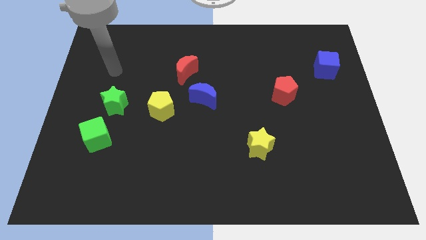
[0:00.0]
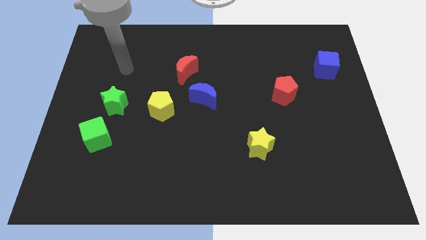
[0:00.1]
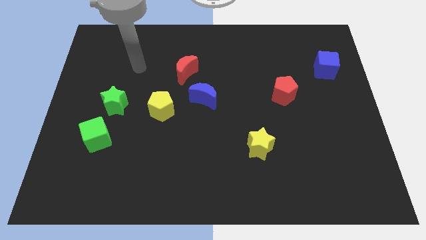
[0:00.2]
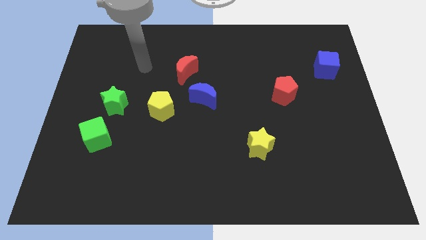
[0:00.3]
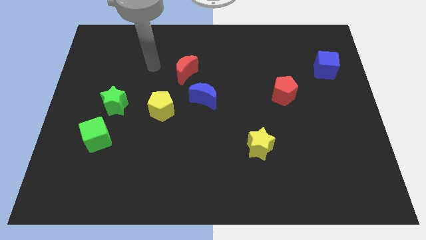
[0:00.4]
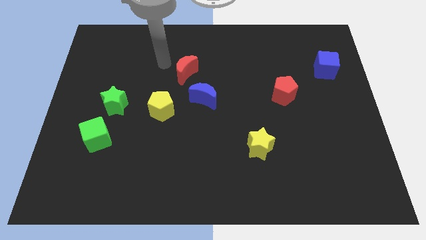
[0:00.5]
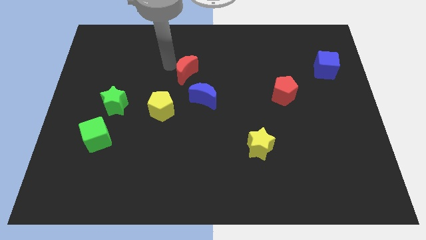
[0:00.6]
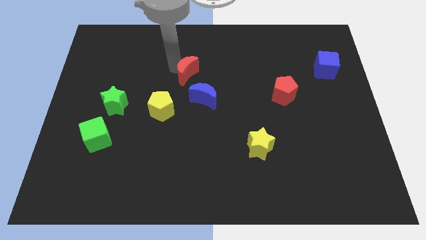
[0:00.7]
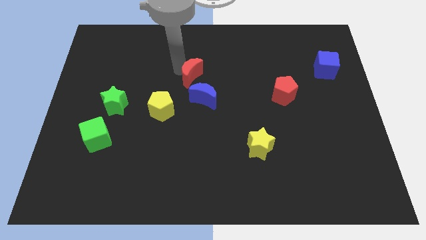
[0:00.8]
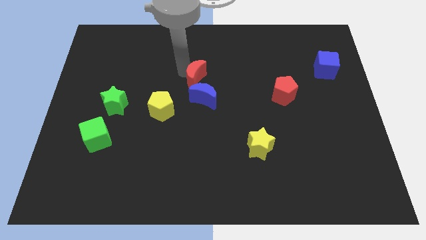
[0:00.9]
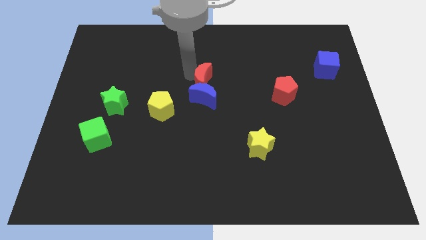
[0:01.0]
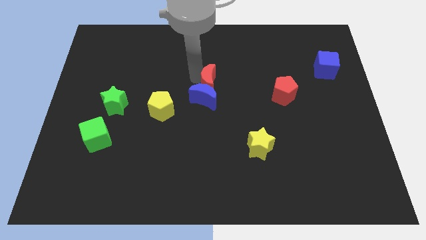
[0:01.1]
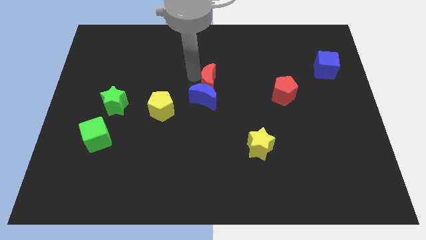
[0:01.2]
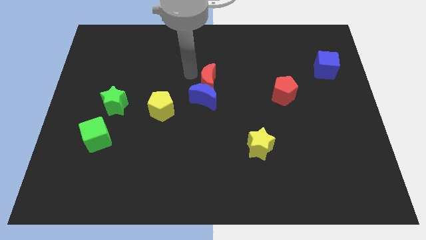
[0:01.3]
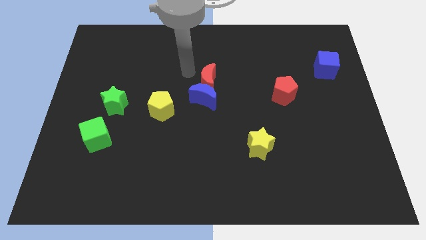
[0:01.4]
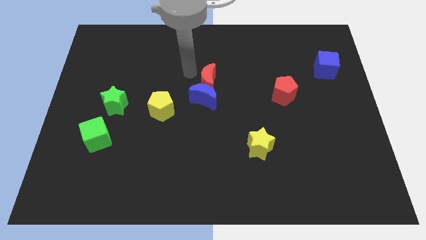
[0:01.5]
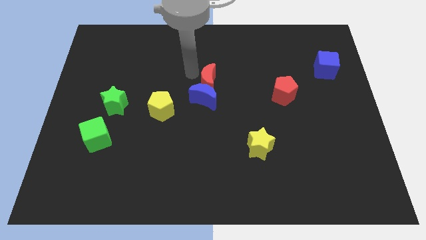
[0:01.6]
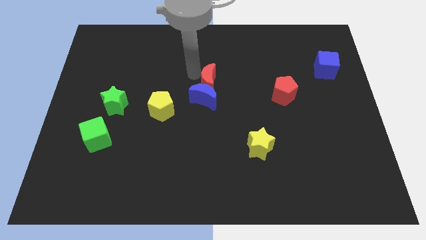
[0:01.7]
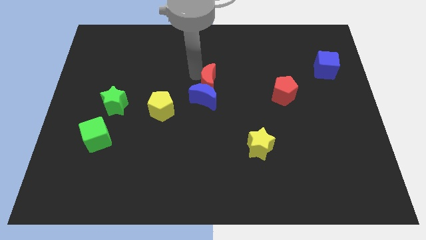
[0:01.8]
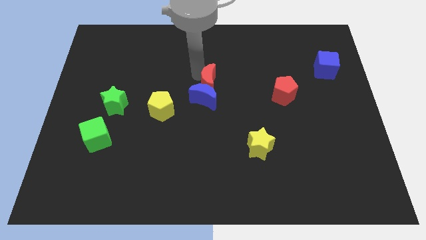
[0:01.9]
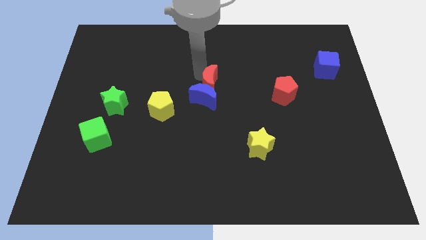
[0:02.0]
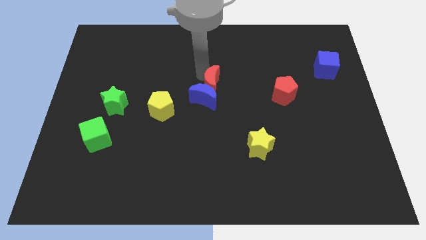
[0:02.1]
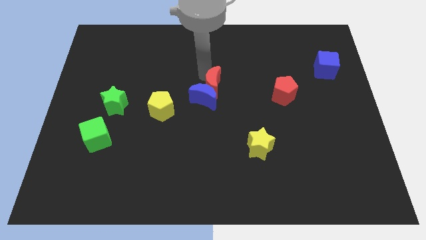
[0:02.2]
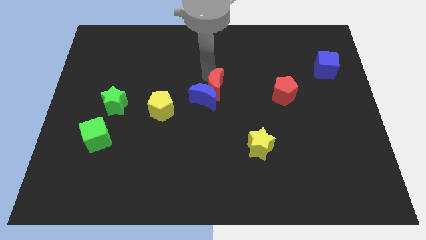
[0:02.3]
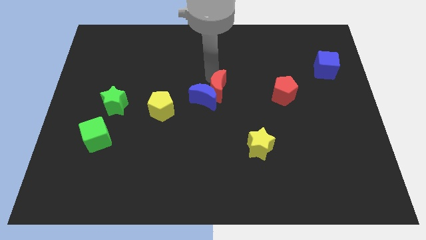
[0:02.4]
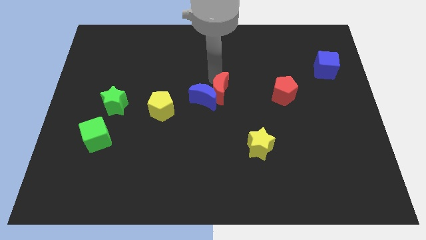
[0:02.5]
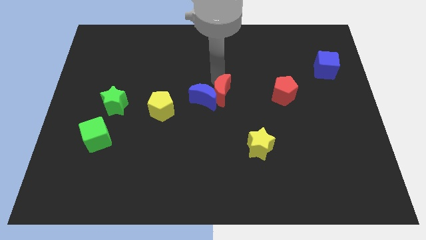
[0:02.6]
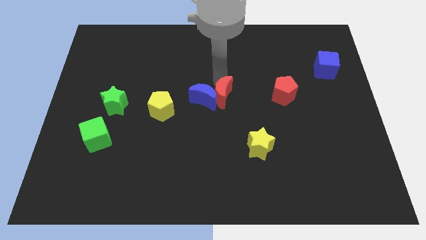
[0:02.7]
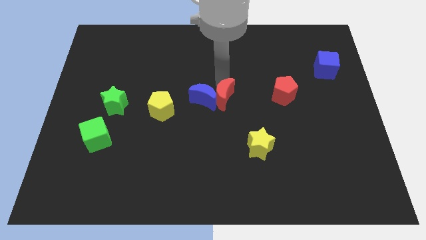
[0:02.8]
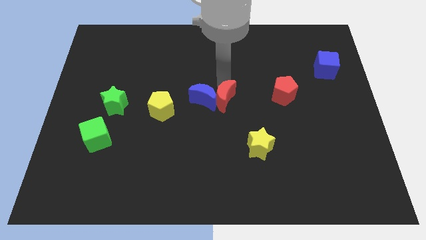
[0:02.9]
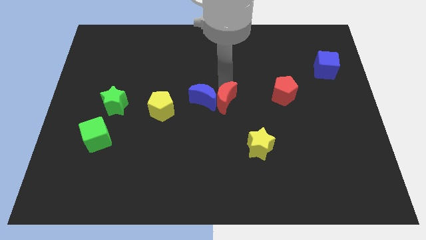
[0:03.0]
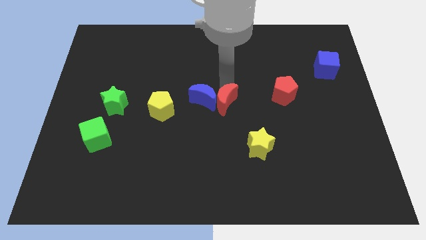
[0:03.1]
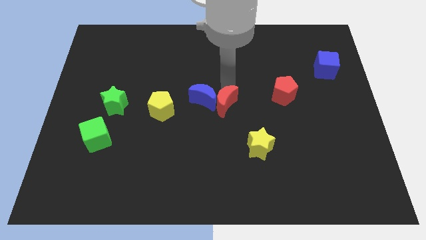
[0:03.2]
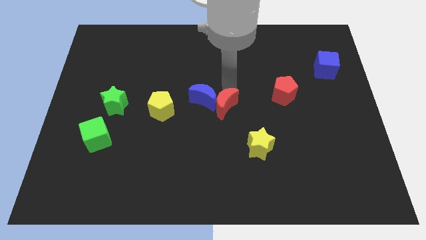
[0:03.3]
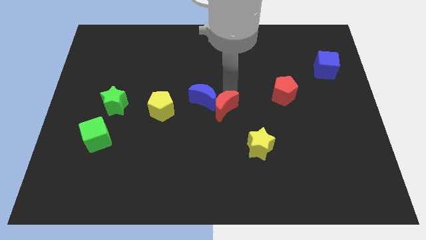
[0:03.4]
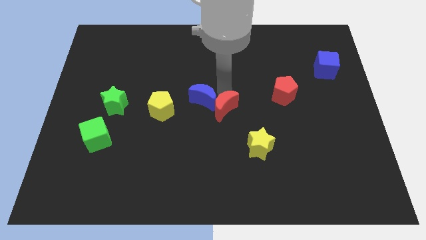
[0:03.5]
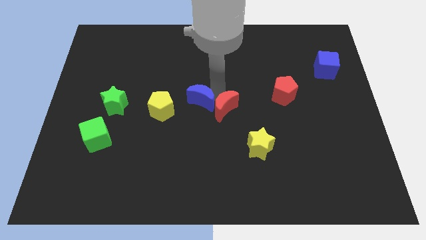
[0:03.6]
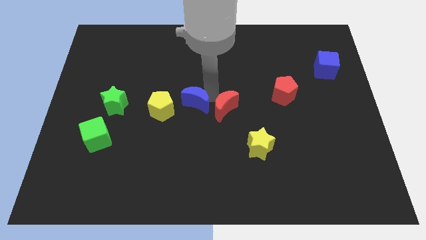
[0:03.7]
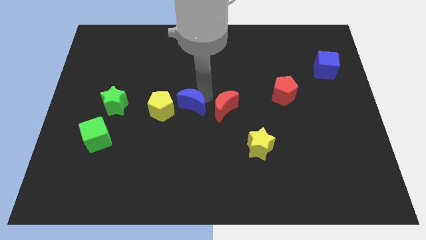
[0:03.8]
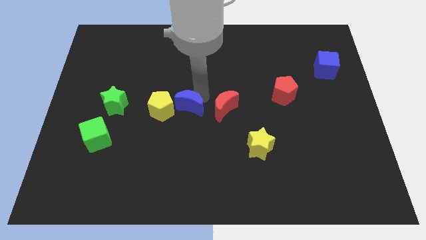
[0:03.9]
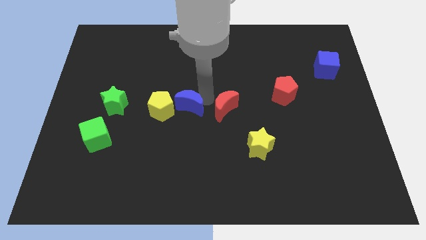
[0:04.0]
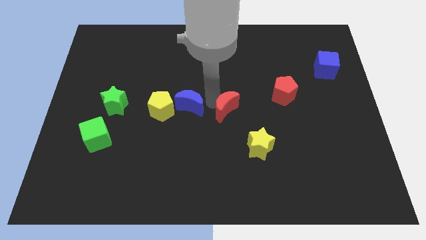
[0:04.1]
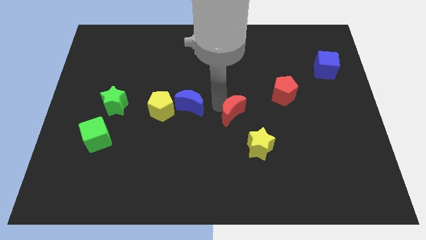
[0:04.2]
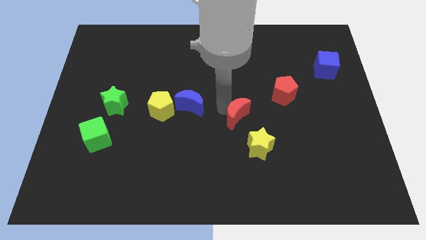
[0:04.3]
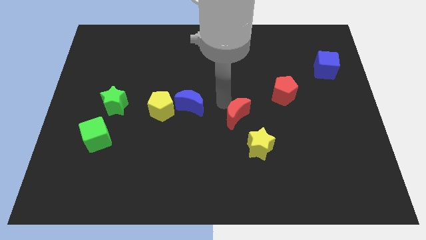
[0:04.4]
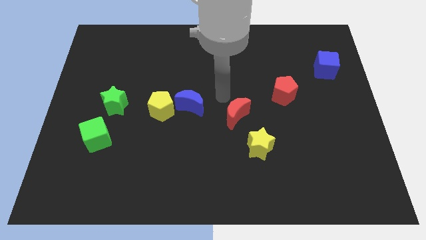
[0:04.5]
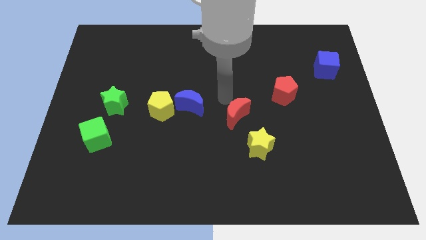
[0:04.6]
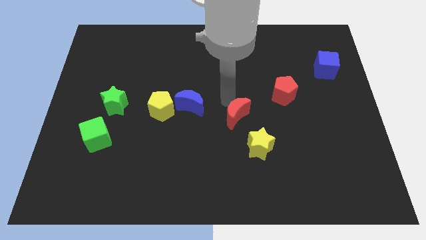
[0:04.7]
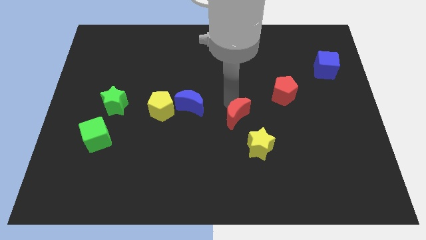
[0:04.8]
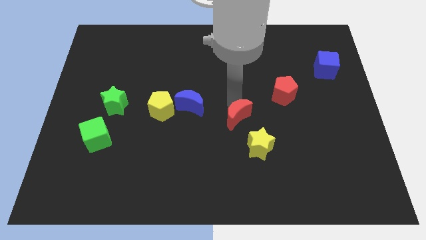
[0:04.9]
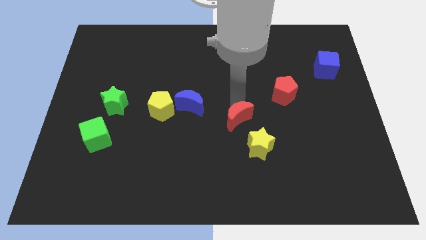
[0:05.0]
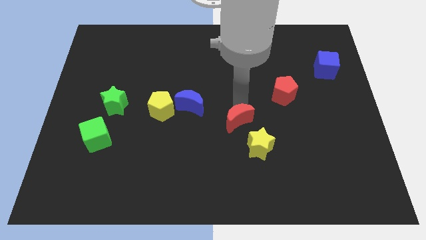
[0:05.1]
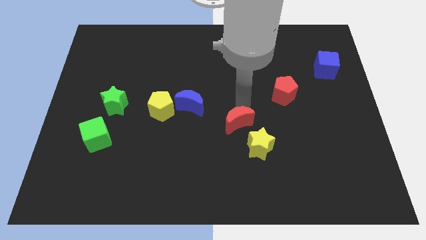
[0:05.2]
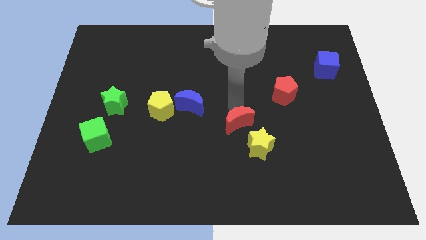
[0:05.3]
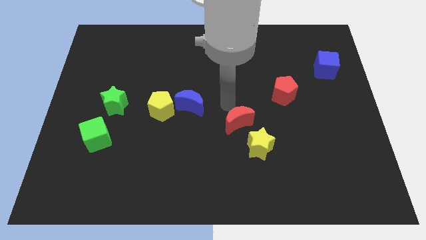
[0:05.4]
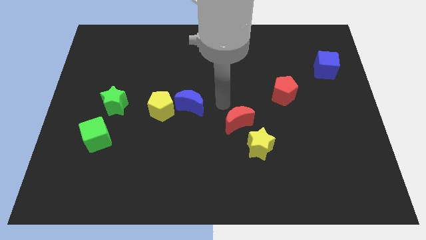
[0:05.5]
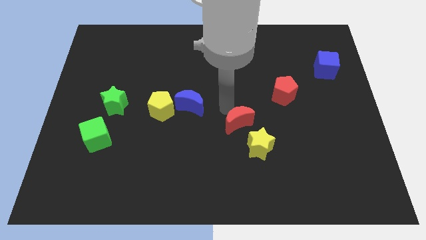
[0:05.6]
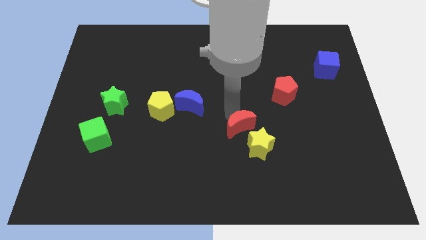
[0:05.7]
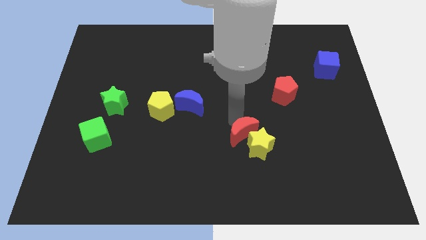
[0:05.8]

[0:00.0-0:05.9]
move the red moon next to the yellow star

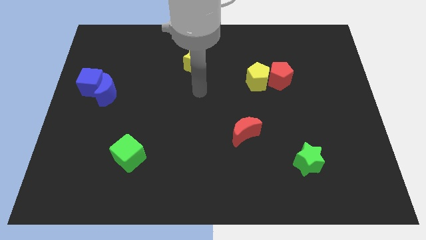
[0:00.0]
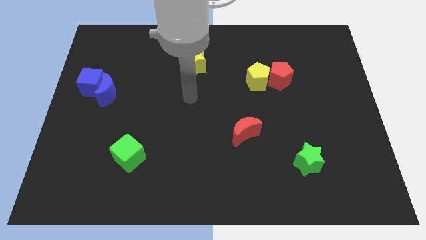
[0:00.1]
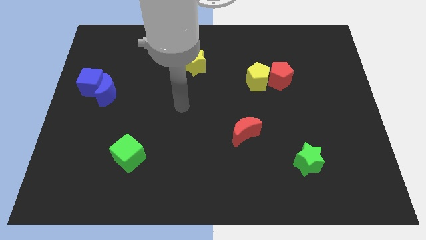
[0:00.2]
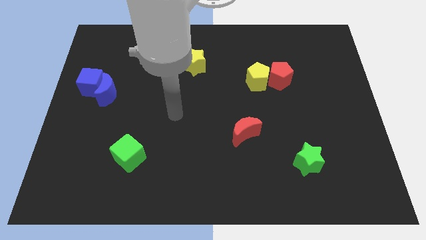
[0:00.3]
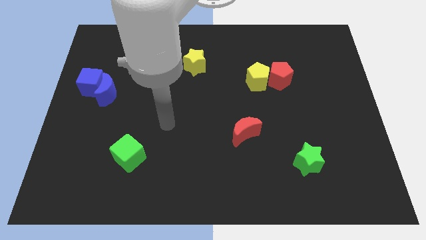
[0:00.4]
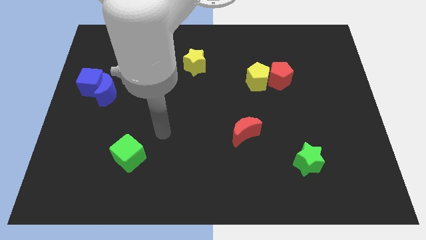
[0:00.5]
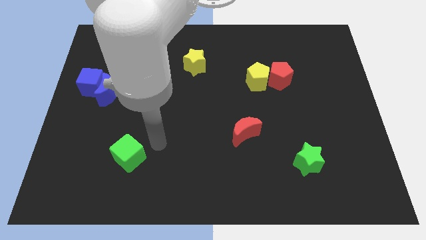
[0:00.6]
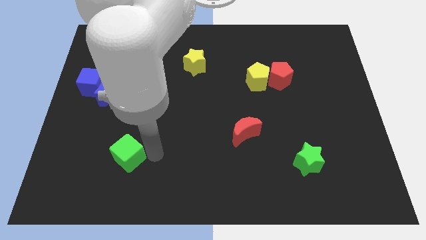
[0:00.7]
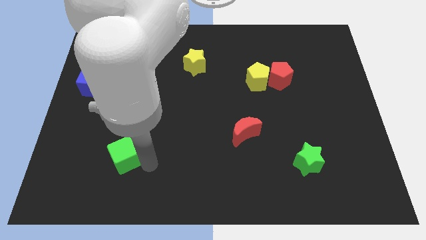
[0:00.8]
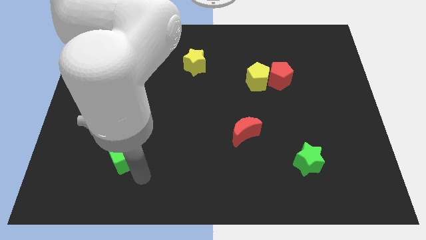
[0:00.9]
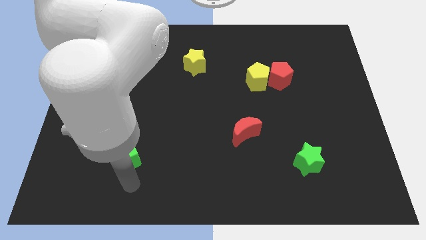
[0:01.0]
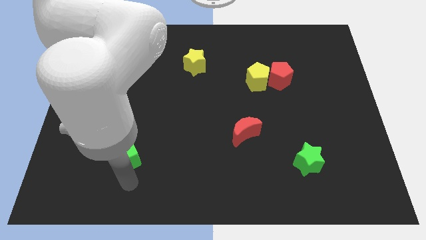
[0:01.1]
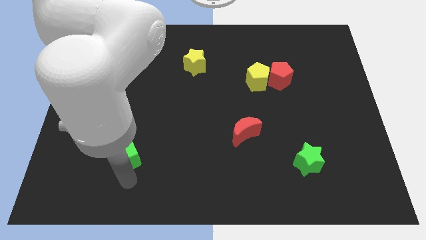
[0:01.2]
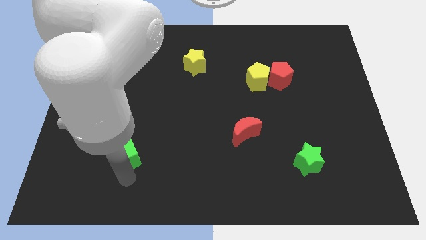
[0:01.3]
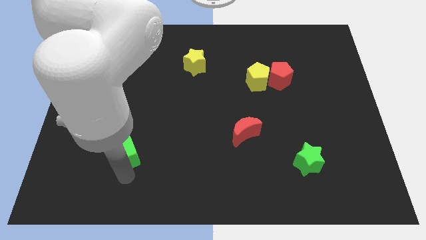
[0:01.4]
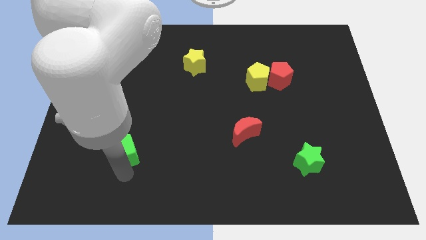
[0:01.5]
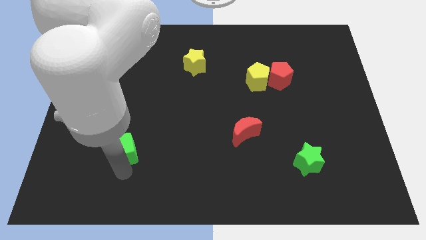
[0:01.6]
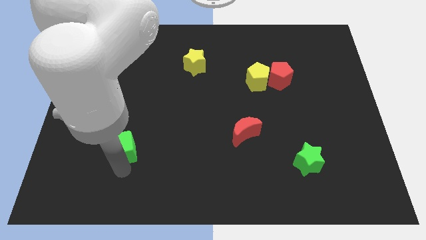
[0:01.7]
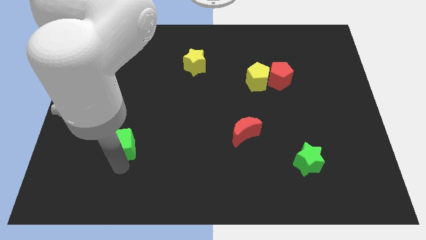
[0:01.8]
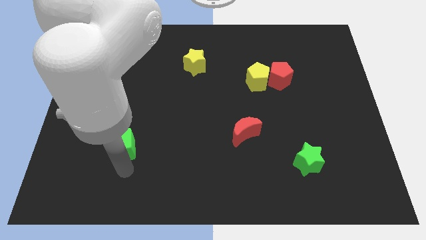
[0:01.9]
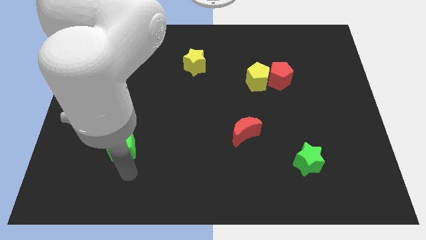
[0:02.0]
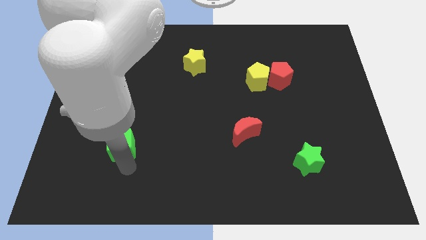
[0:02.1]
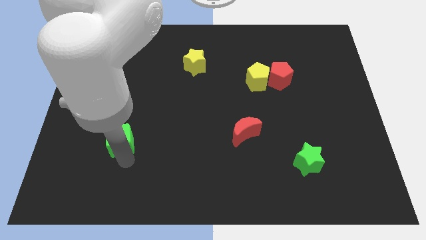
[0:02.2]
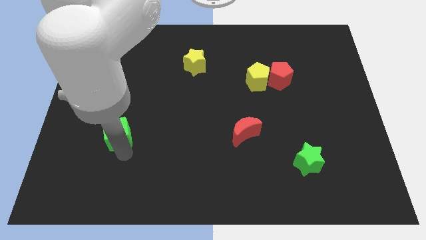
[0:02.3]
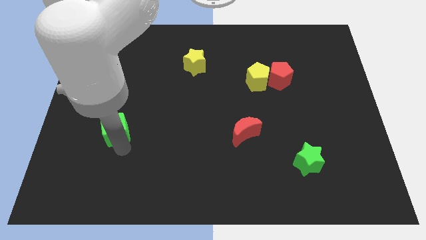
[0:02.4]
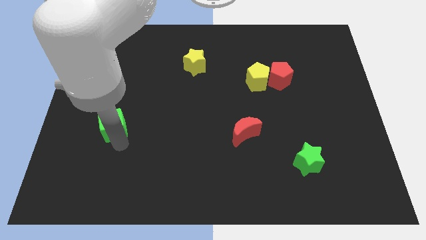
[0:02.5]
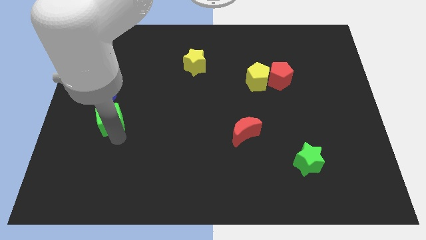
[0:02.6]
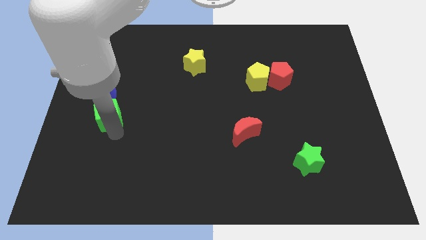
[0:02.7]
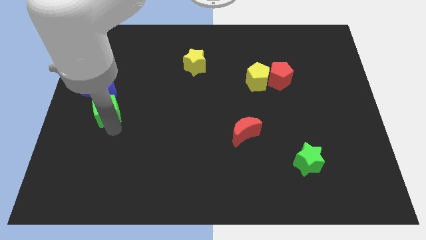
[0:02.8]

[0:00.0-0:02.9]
put the green cube to the blue moon
